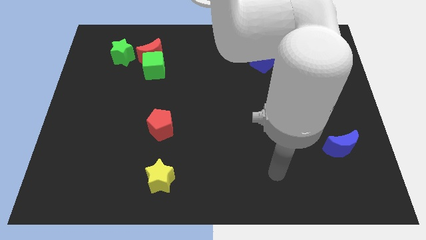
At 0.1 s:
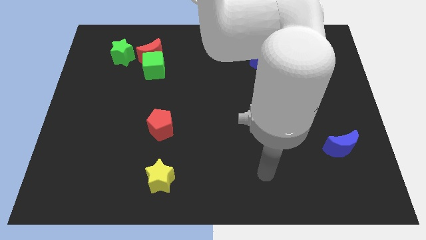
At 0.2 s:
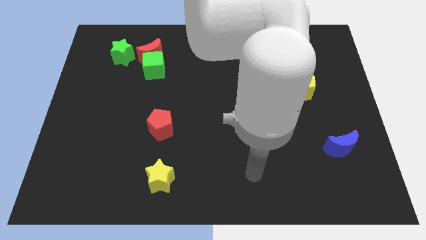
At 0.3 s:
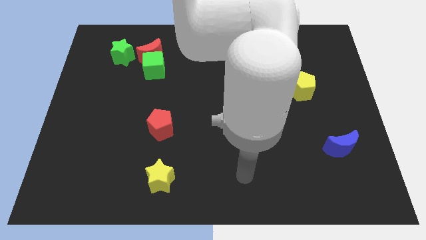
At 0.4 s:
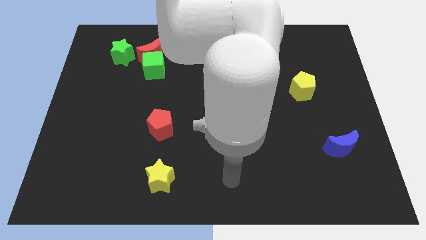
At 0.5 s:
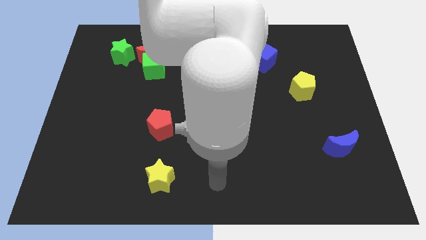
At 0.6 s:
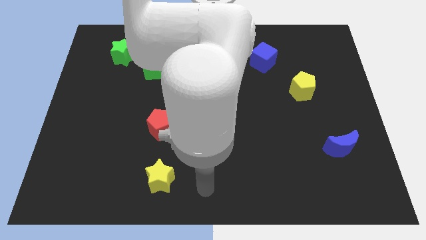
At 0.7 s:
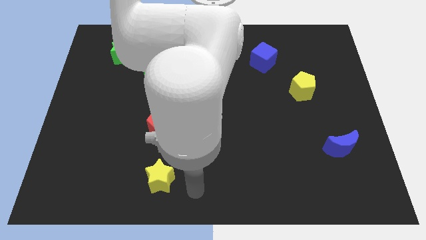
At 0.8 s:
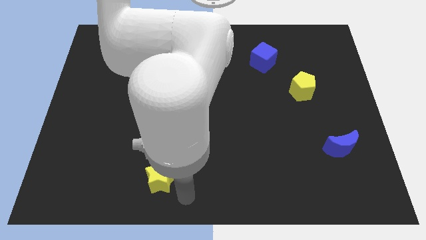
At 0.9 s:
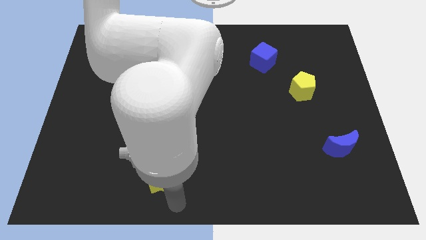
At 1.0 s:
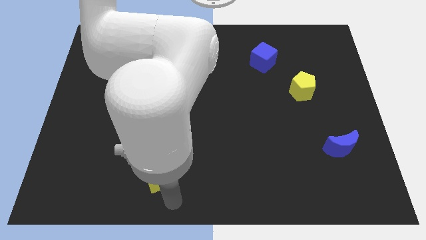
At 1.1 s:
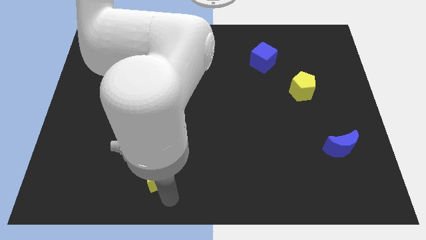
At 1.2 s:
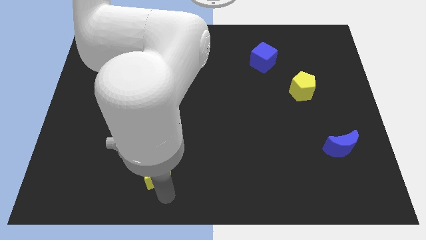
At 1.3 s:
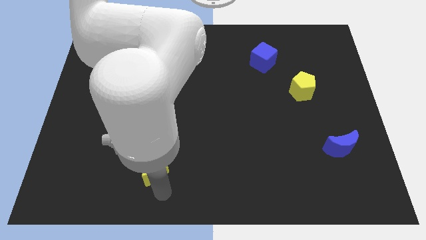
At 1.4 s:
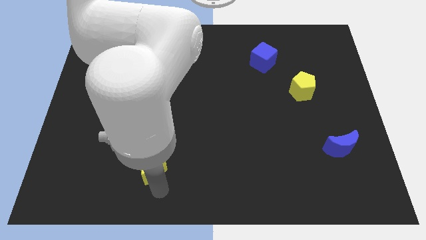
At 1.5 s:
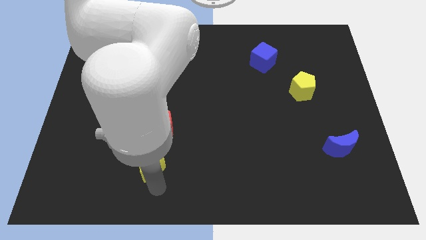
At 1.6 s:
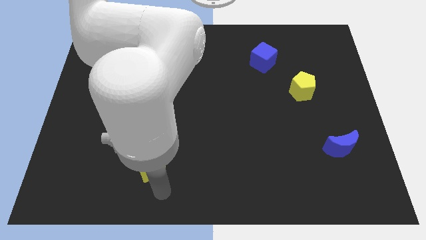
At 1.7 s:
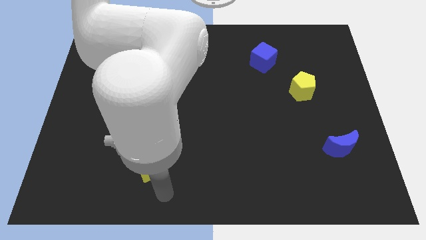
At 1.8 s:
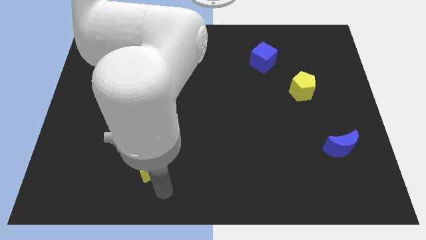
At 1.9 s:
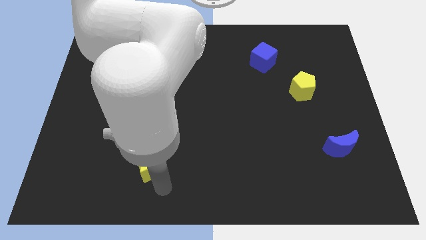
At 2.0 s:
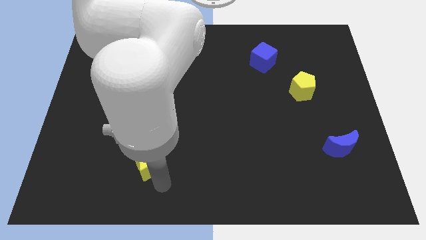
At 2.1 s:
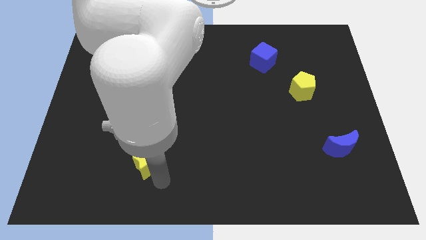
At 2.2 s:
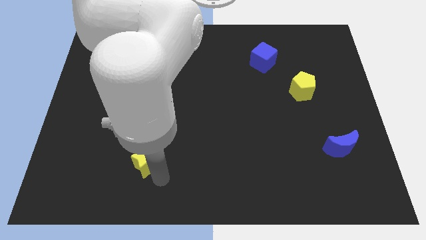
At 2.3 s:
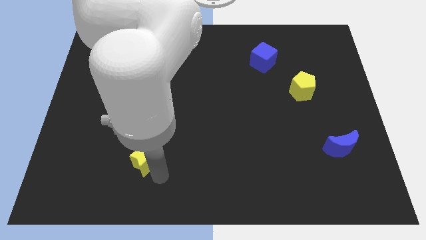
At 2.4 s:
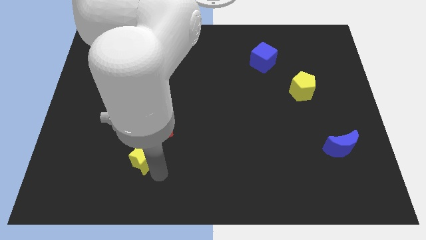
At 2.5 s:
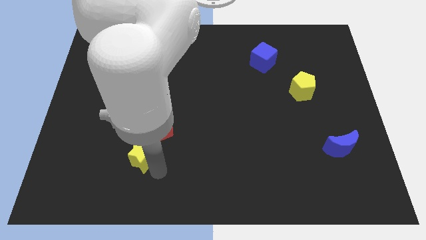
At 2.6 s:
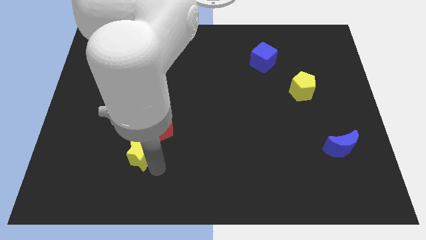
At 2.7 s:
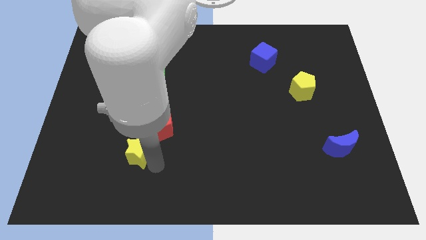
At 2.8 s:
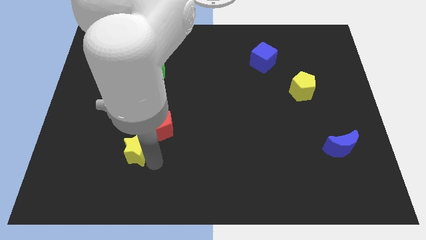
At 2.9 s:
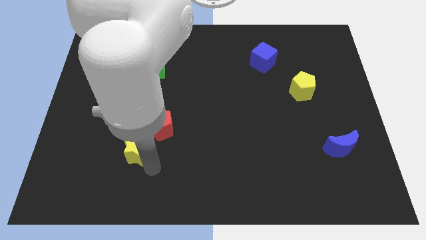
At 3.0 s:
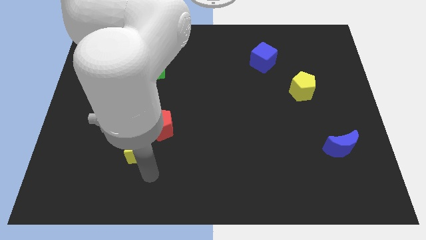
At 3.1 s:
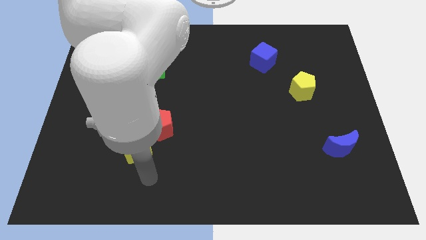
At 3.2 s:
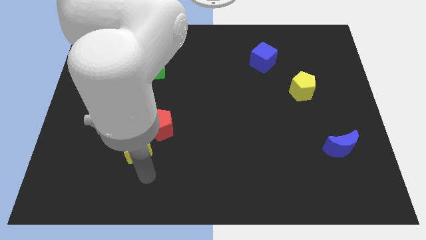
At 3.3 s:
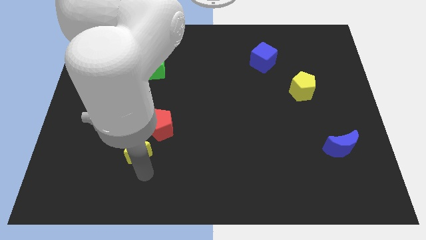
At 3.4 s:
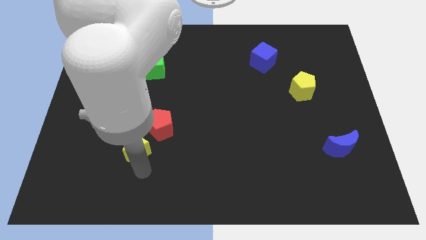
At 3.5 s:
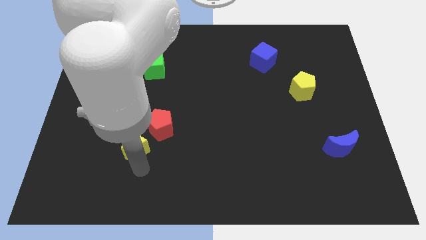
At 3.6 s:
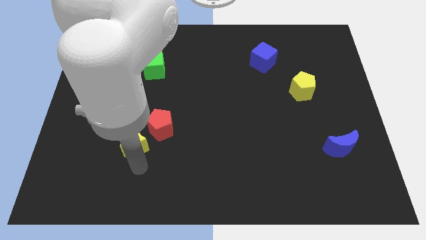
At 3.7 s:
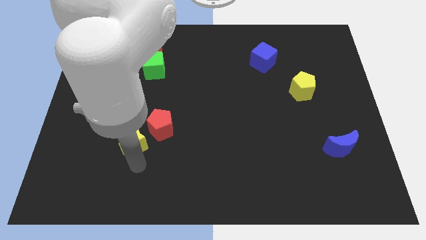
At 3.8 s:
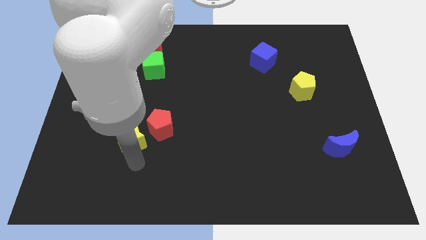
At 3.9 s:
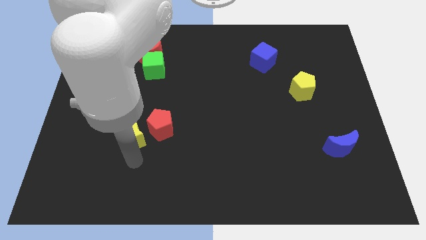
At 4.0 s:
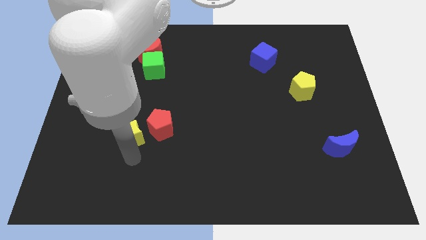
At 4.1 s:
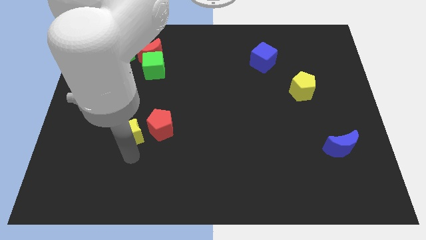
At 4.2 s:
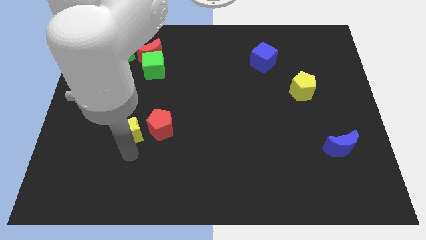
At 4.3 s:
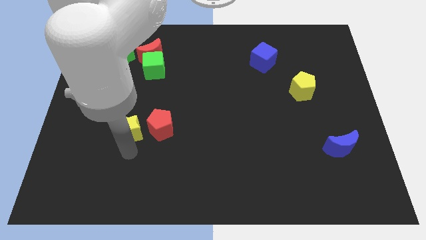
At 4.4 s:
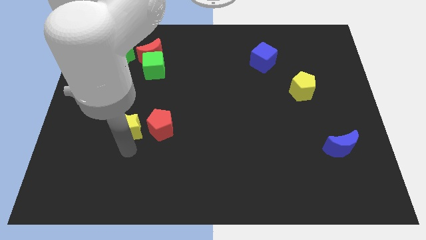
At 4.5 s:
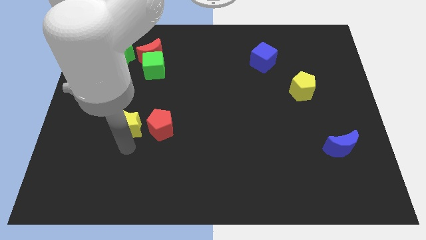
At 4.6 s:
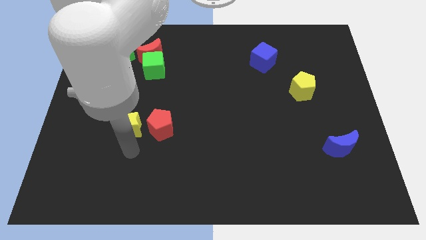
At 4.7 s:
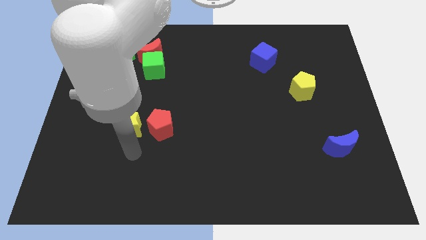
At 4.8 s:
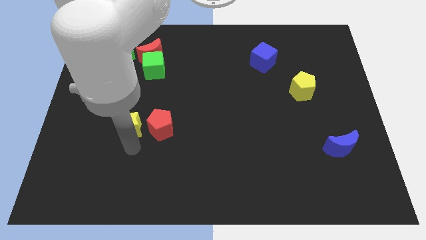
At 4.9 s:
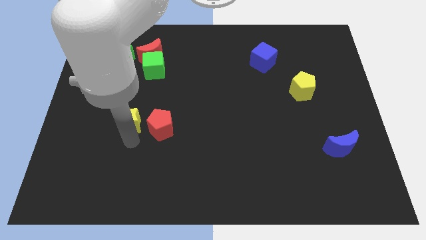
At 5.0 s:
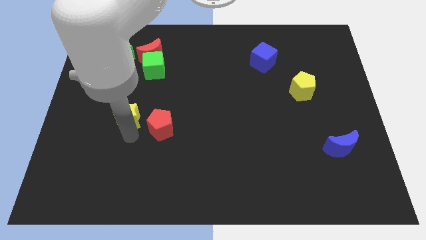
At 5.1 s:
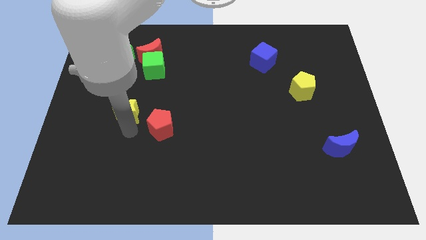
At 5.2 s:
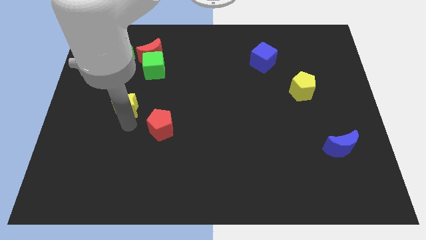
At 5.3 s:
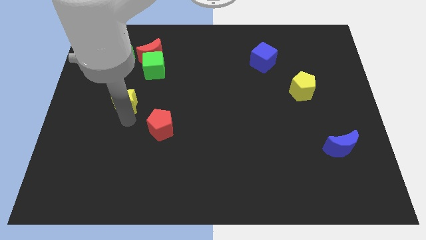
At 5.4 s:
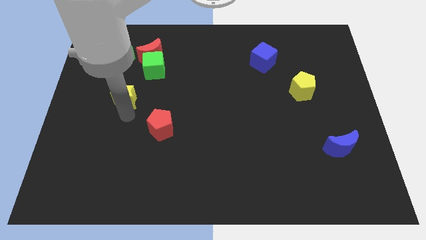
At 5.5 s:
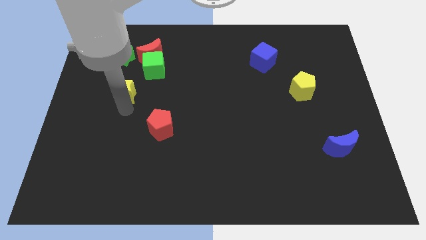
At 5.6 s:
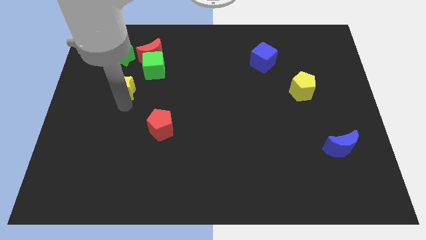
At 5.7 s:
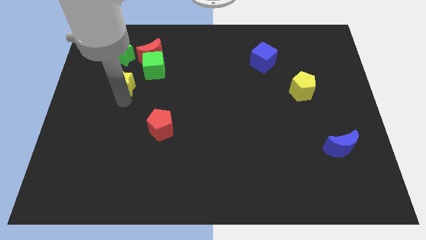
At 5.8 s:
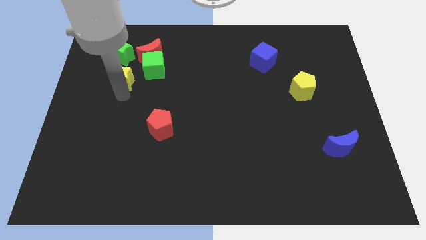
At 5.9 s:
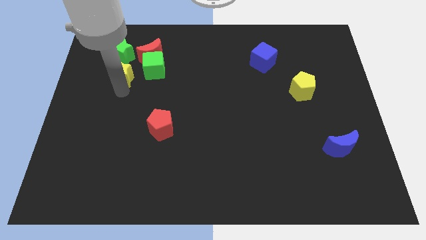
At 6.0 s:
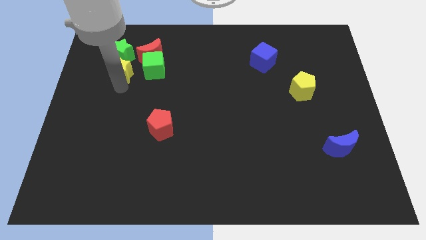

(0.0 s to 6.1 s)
push the yellow star towards the green star

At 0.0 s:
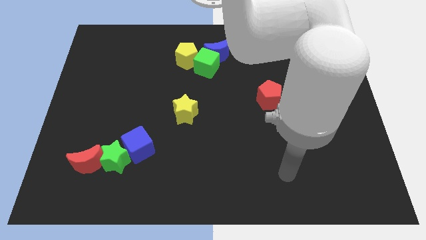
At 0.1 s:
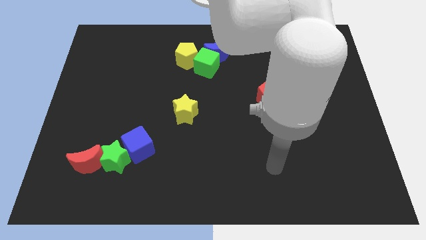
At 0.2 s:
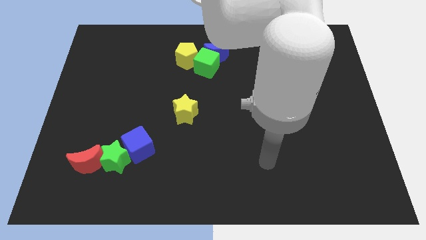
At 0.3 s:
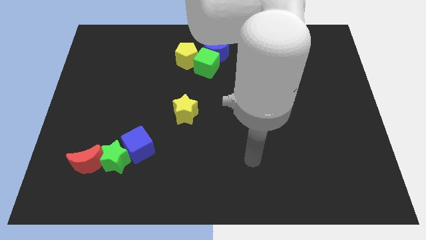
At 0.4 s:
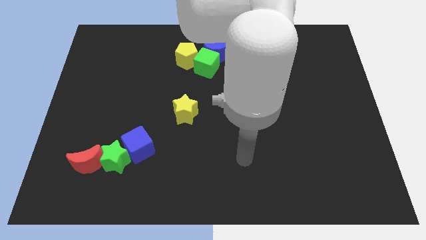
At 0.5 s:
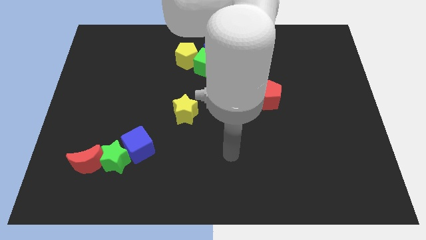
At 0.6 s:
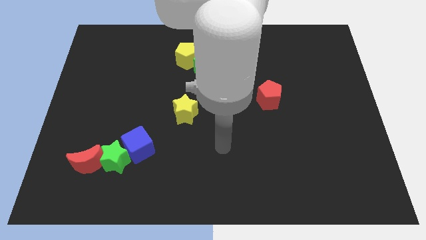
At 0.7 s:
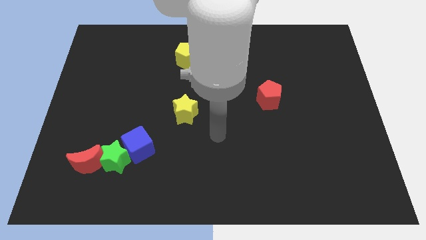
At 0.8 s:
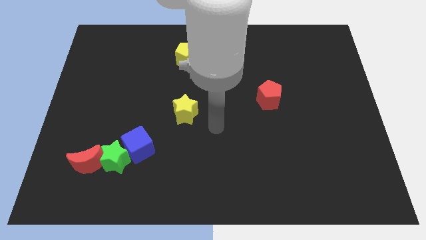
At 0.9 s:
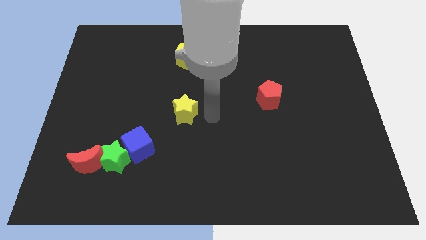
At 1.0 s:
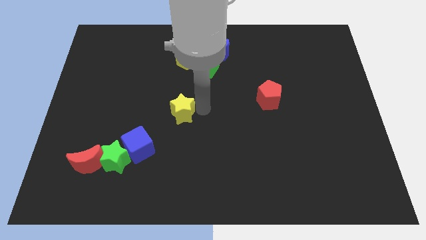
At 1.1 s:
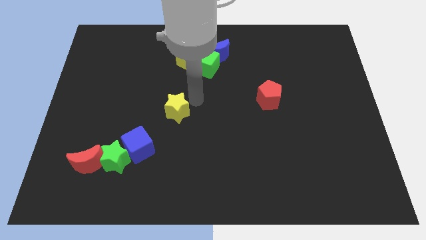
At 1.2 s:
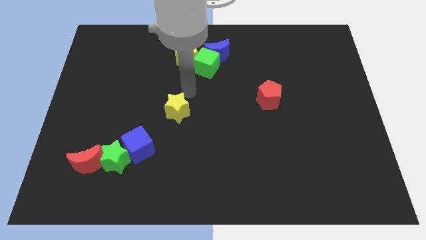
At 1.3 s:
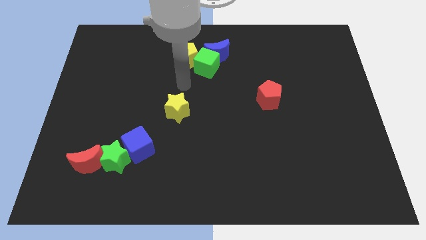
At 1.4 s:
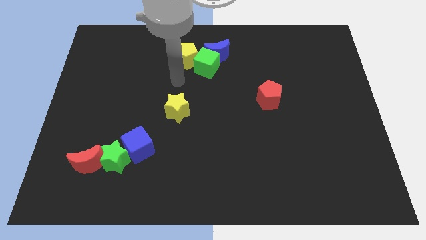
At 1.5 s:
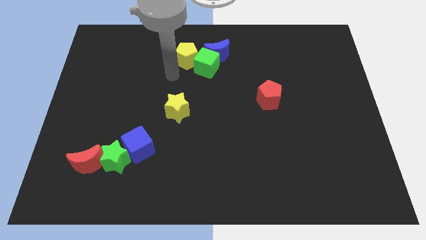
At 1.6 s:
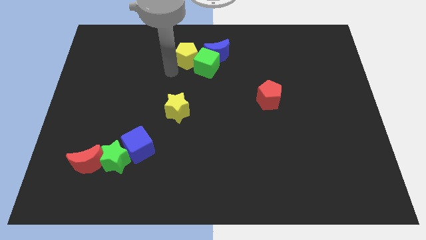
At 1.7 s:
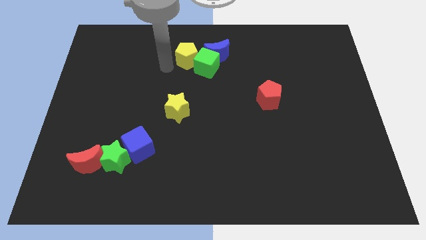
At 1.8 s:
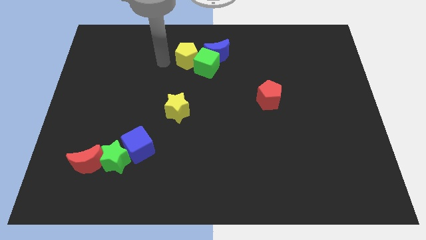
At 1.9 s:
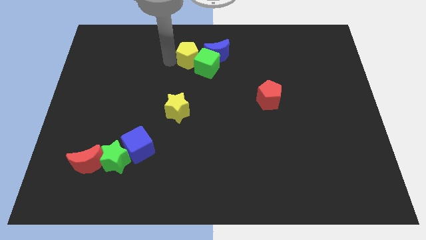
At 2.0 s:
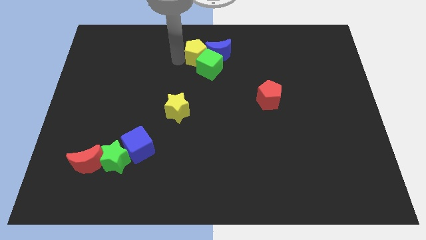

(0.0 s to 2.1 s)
put the yellow pentagon to the blue moon
